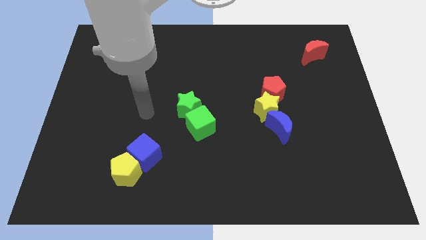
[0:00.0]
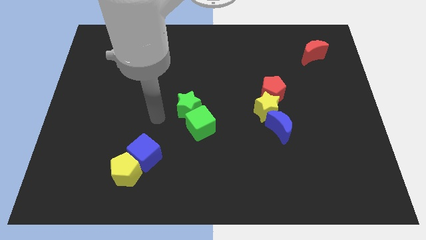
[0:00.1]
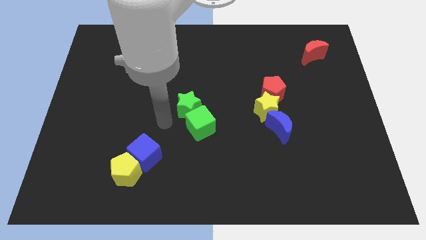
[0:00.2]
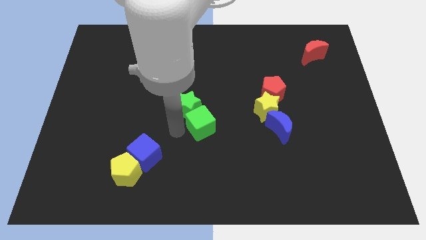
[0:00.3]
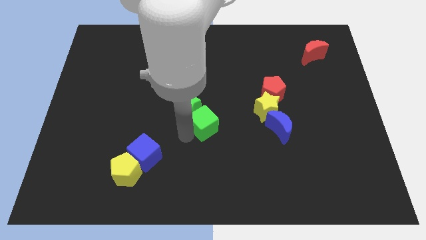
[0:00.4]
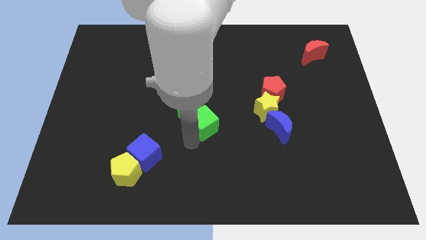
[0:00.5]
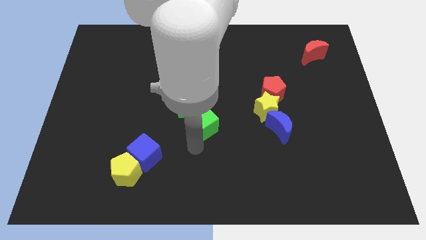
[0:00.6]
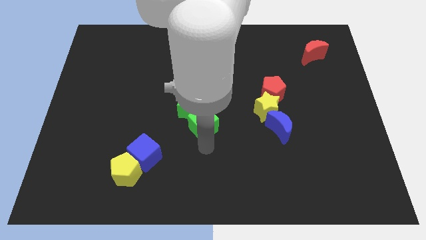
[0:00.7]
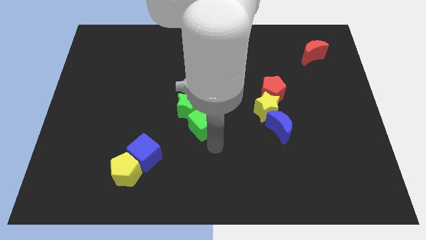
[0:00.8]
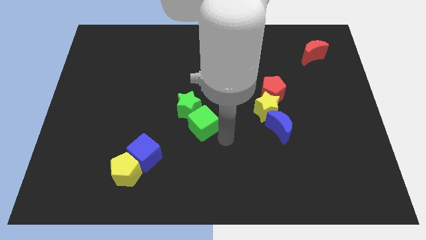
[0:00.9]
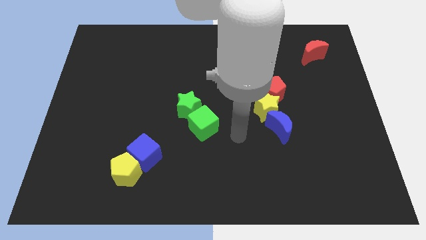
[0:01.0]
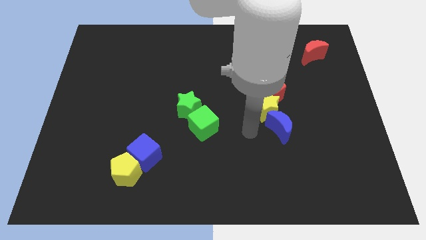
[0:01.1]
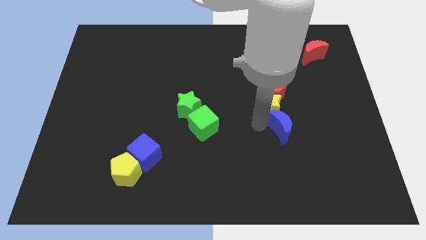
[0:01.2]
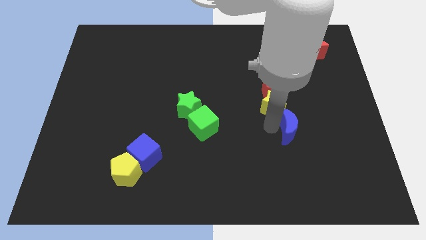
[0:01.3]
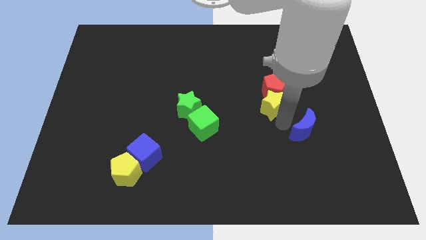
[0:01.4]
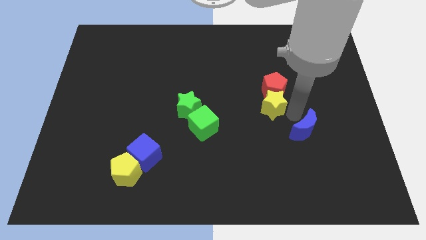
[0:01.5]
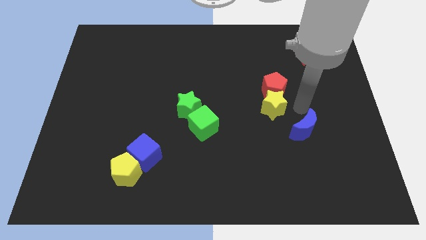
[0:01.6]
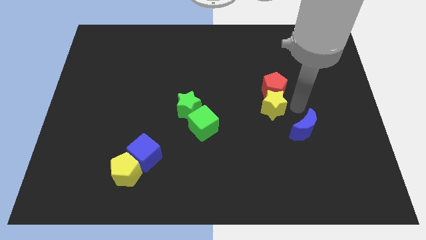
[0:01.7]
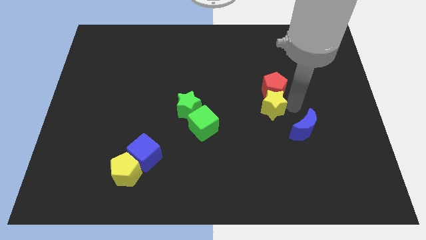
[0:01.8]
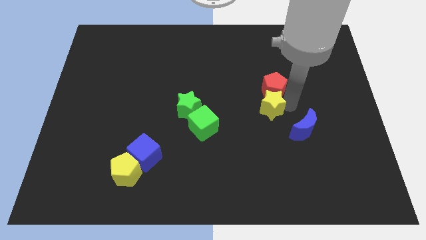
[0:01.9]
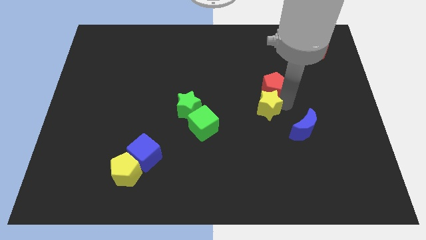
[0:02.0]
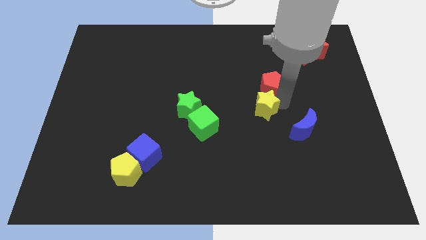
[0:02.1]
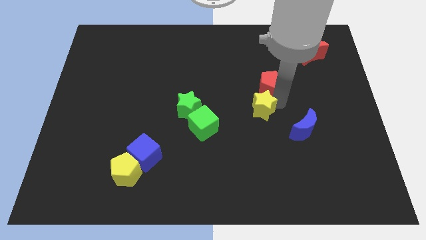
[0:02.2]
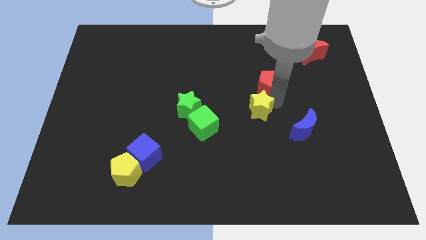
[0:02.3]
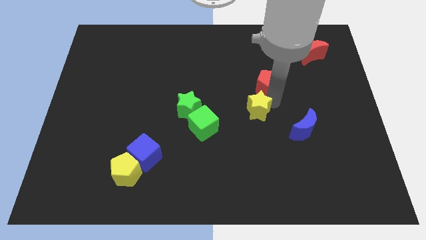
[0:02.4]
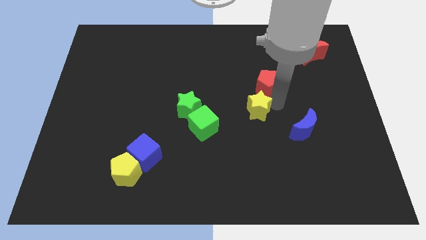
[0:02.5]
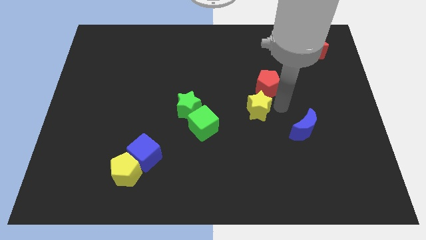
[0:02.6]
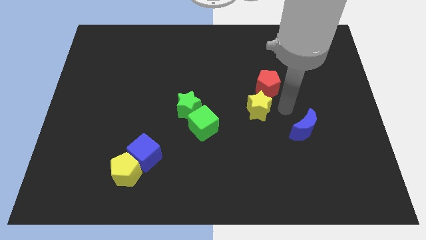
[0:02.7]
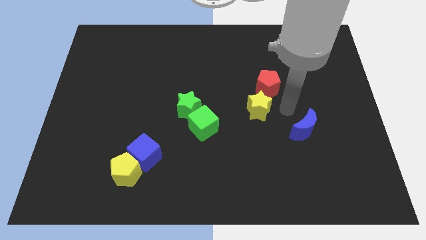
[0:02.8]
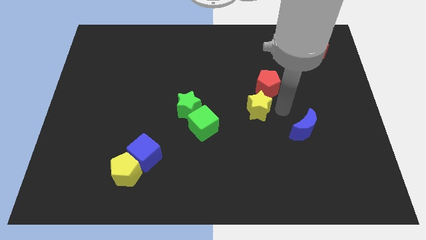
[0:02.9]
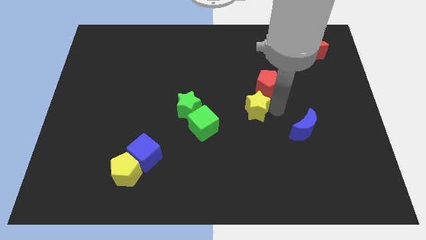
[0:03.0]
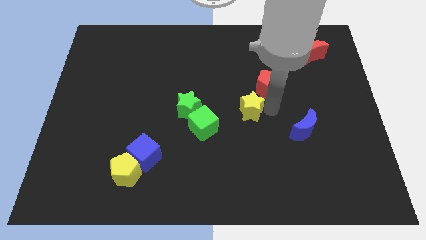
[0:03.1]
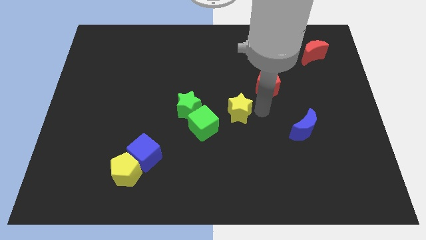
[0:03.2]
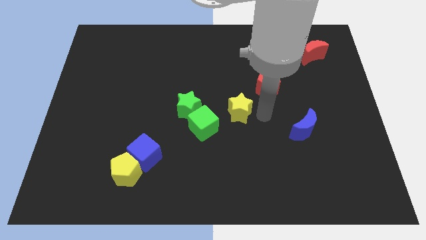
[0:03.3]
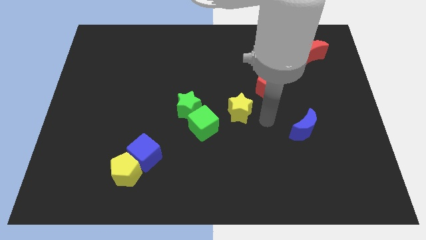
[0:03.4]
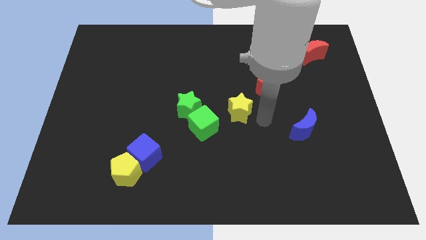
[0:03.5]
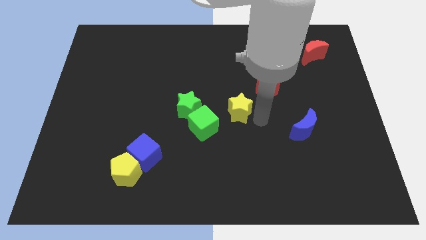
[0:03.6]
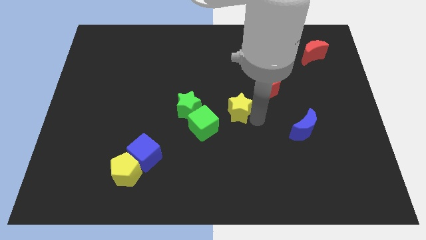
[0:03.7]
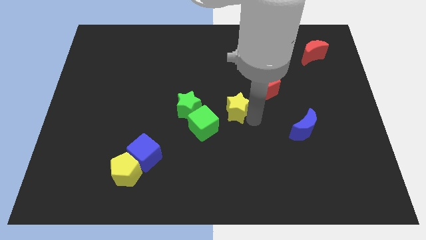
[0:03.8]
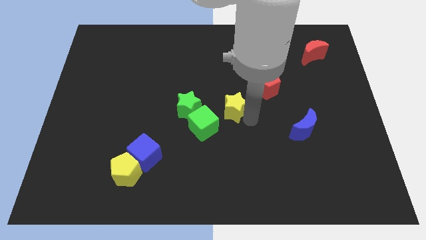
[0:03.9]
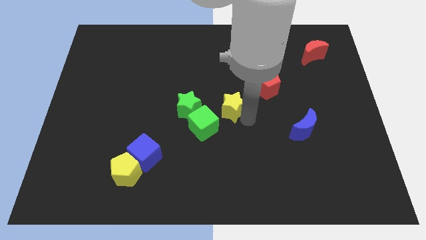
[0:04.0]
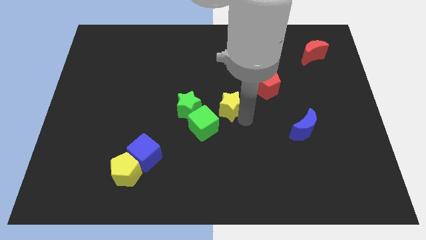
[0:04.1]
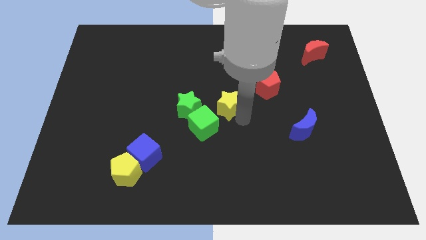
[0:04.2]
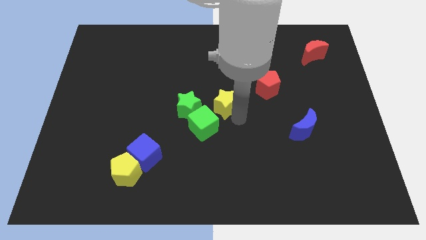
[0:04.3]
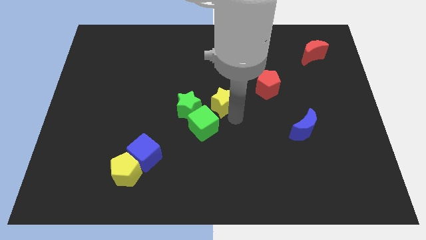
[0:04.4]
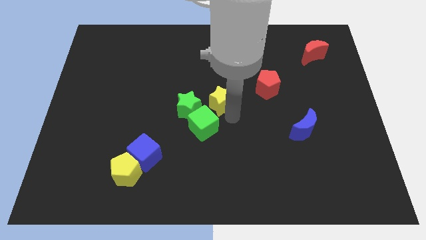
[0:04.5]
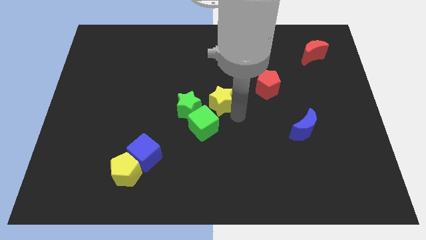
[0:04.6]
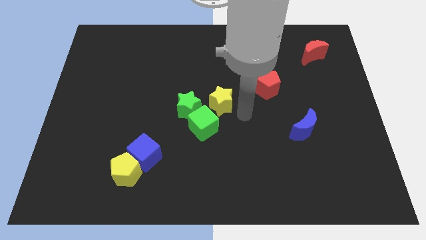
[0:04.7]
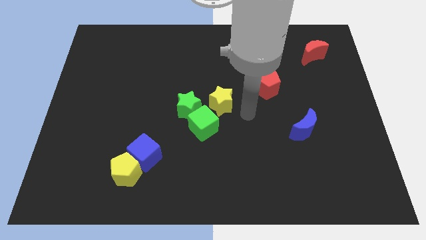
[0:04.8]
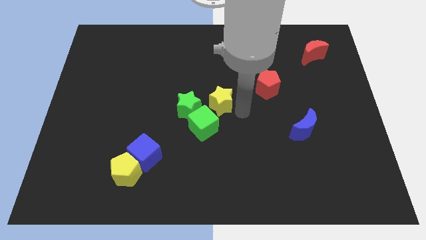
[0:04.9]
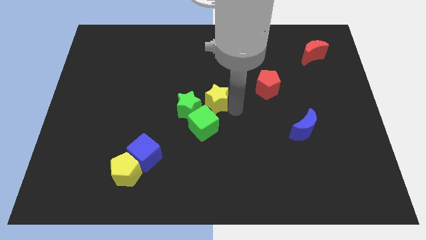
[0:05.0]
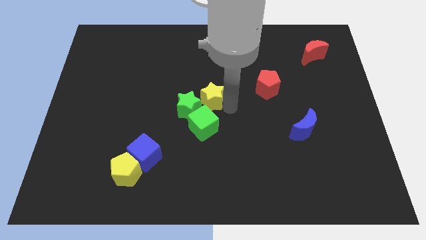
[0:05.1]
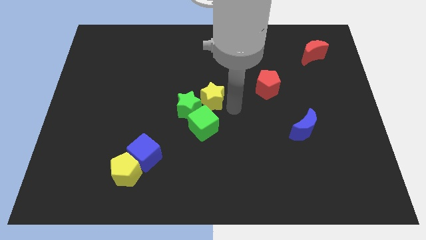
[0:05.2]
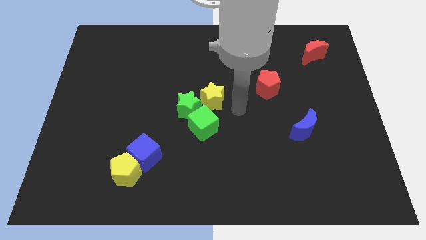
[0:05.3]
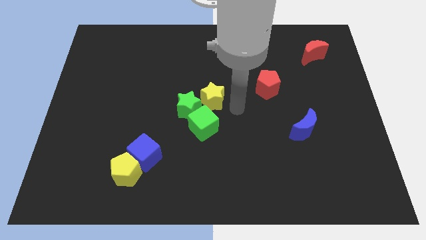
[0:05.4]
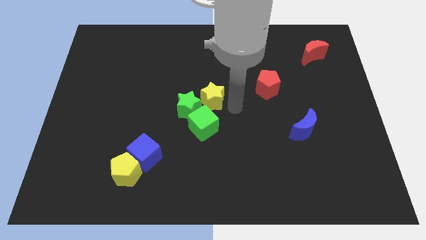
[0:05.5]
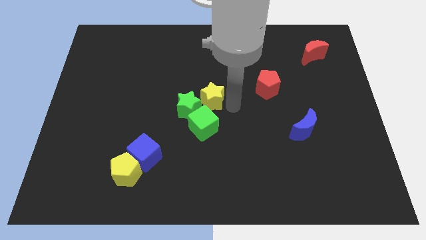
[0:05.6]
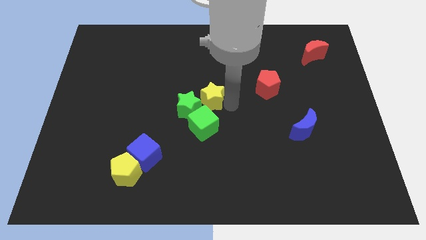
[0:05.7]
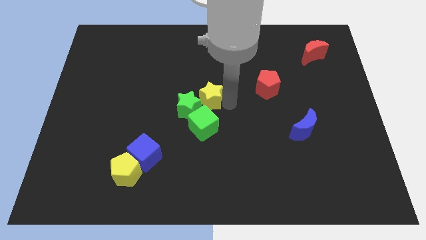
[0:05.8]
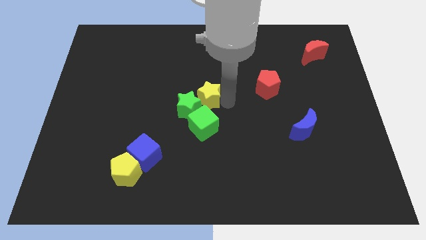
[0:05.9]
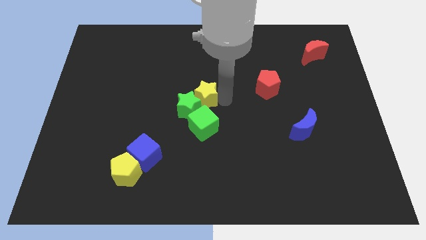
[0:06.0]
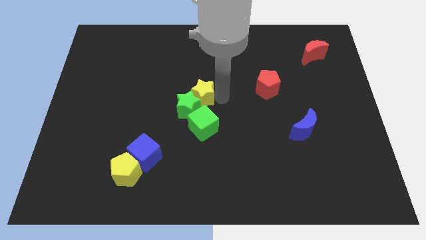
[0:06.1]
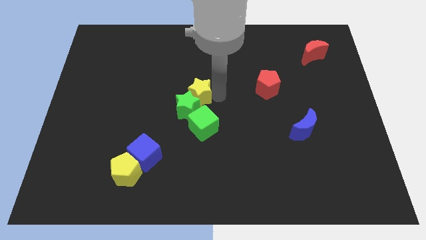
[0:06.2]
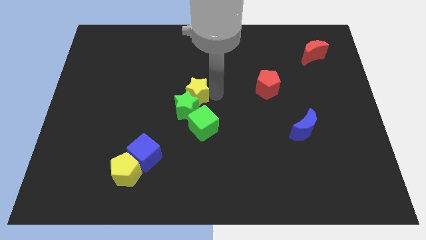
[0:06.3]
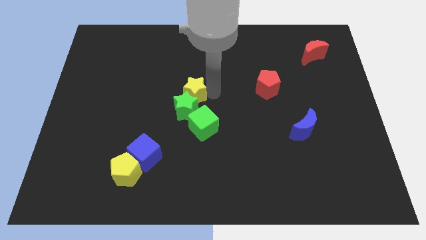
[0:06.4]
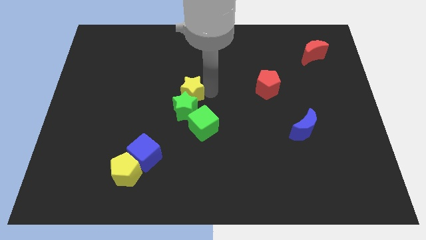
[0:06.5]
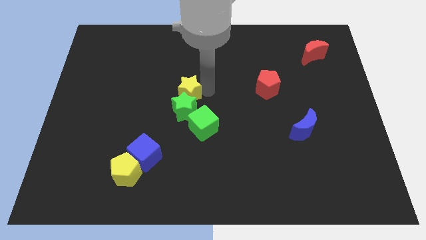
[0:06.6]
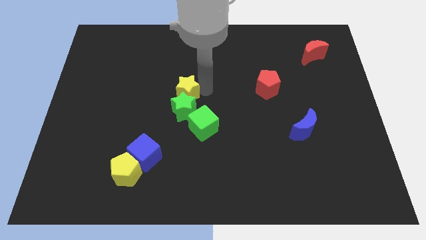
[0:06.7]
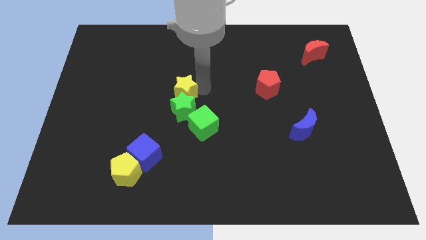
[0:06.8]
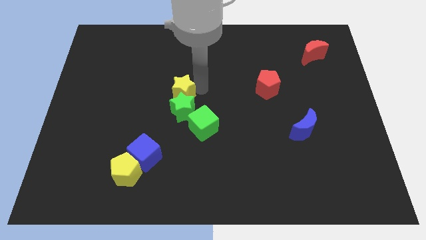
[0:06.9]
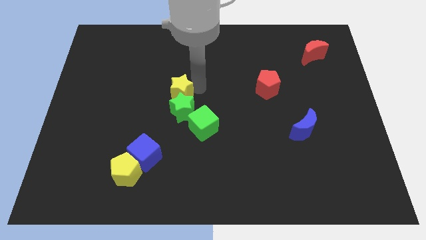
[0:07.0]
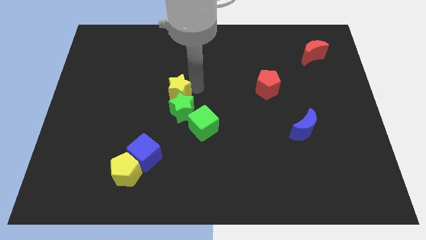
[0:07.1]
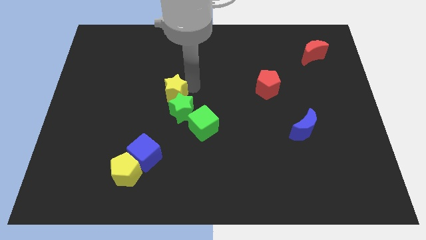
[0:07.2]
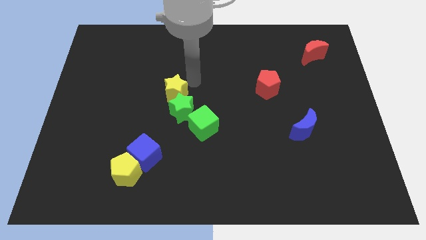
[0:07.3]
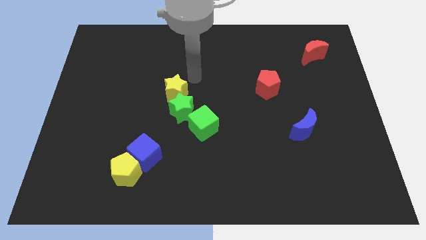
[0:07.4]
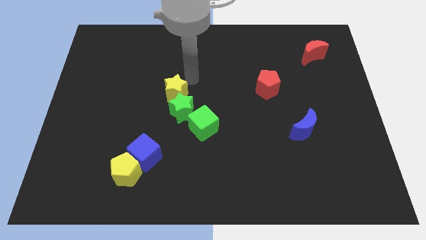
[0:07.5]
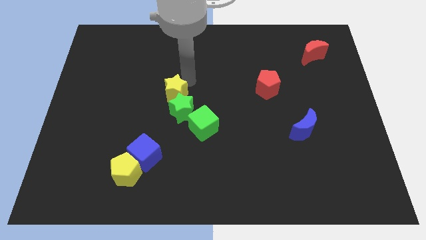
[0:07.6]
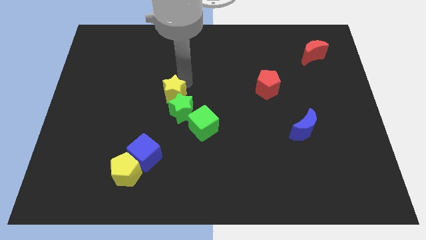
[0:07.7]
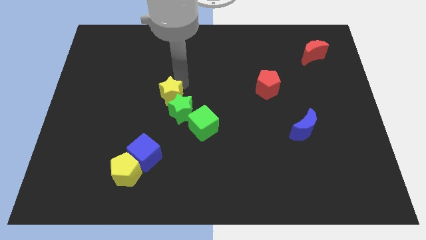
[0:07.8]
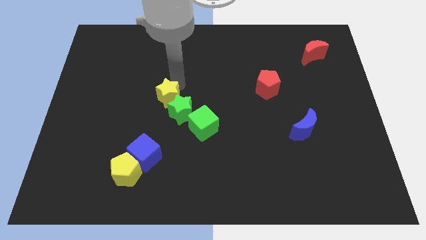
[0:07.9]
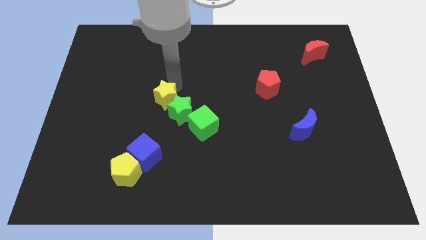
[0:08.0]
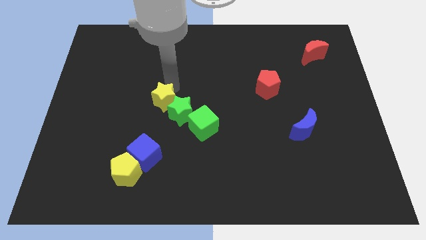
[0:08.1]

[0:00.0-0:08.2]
move the yellow star to the top side of the blue cube
